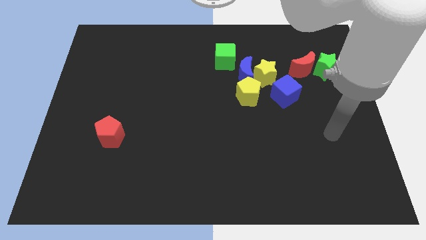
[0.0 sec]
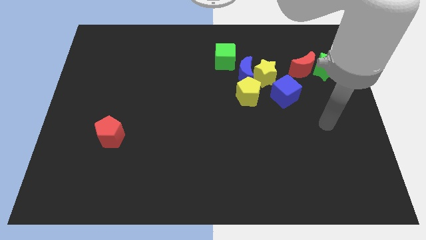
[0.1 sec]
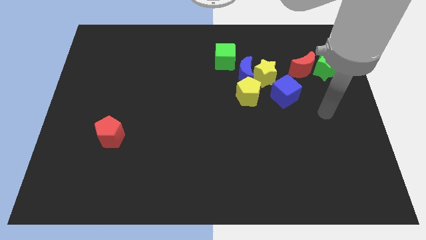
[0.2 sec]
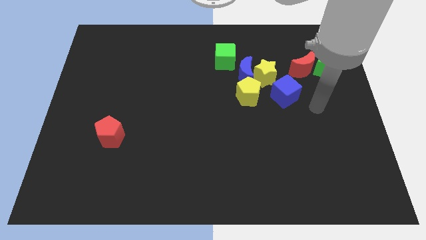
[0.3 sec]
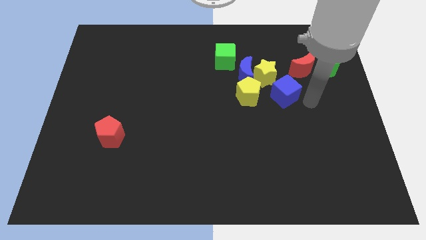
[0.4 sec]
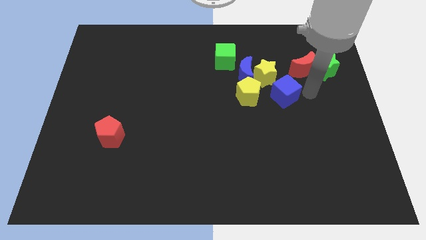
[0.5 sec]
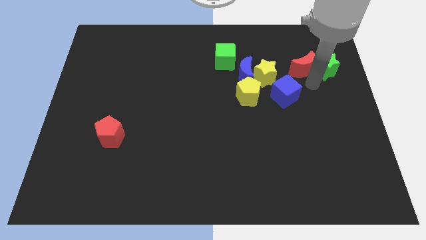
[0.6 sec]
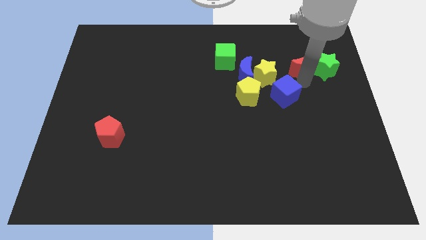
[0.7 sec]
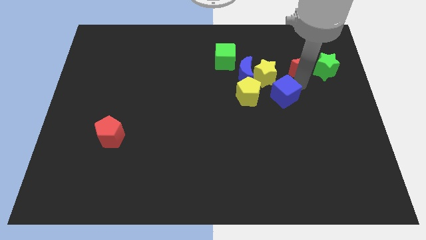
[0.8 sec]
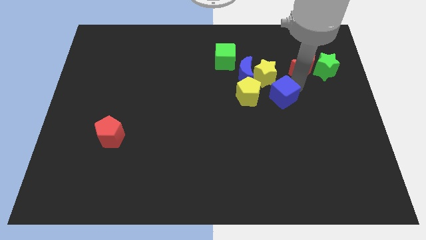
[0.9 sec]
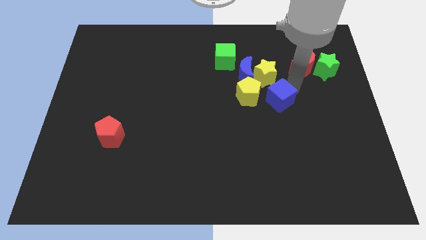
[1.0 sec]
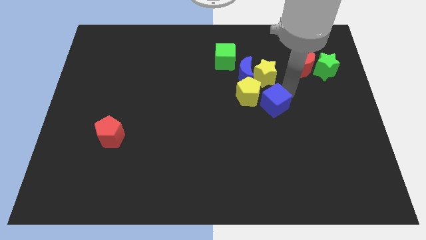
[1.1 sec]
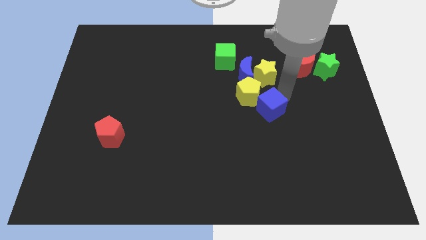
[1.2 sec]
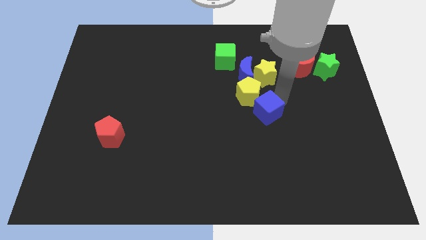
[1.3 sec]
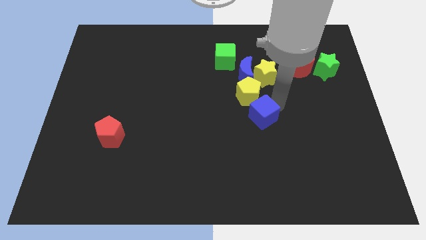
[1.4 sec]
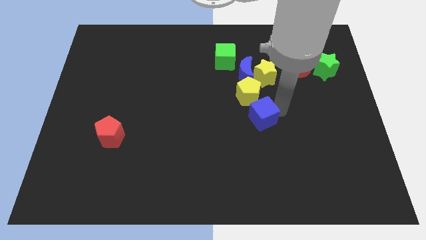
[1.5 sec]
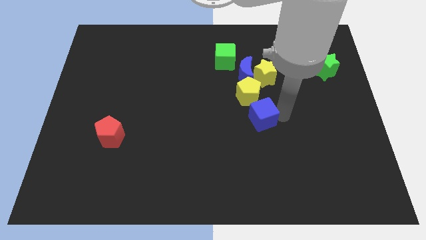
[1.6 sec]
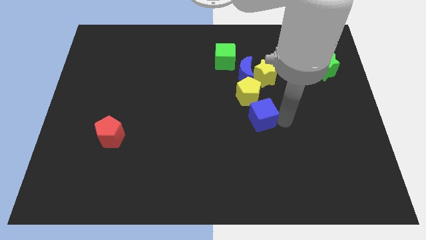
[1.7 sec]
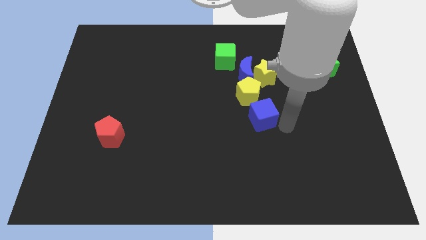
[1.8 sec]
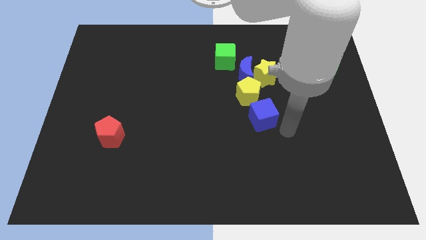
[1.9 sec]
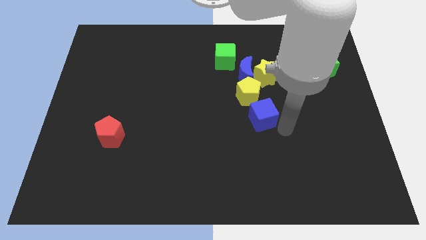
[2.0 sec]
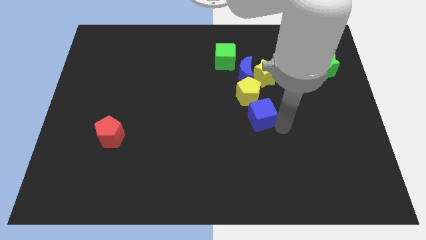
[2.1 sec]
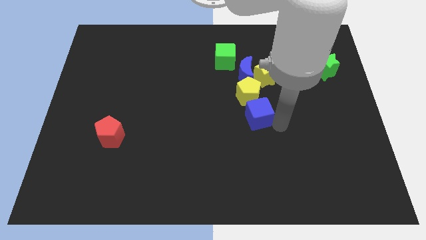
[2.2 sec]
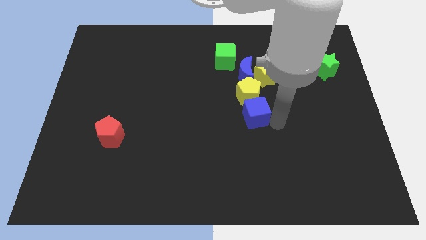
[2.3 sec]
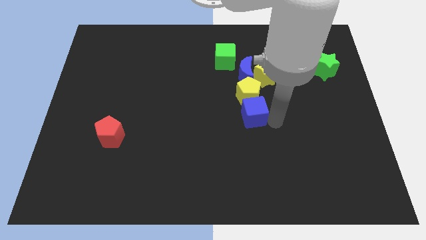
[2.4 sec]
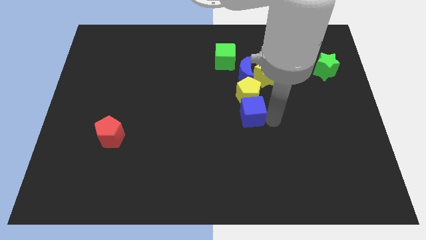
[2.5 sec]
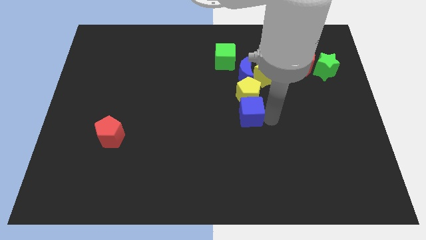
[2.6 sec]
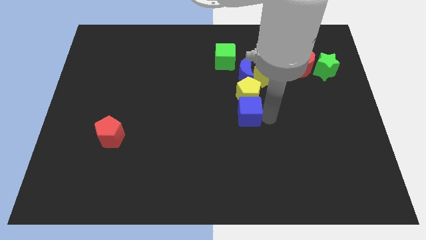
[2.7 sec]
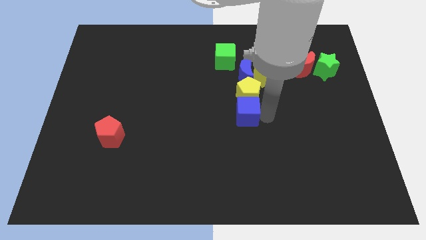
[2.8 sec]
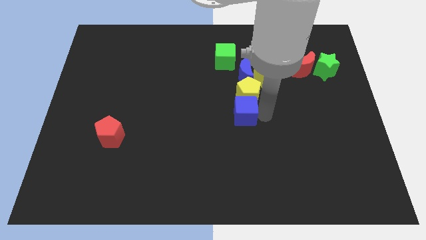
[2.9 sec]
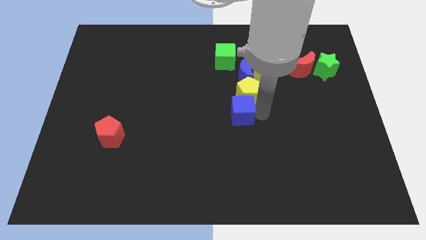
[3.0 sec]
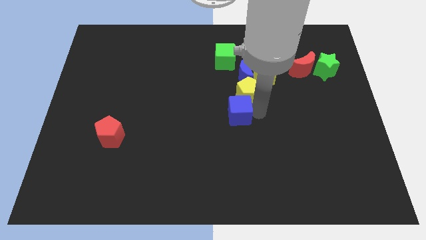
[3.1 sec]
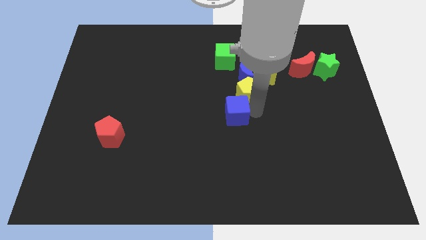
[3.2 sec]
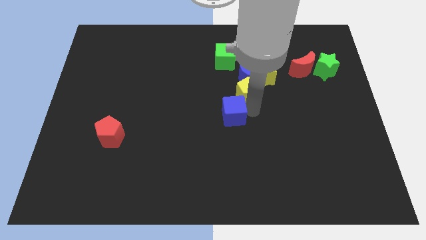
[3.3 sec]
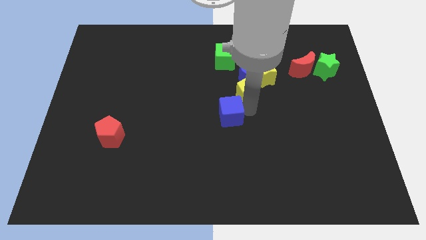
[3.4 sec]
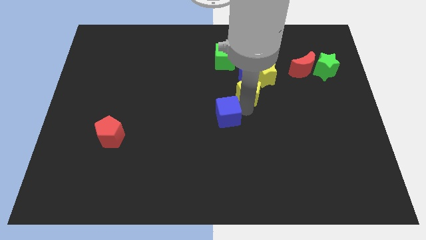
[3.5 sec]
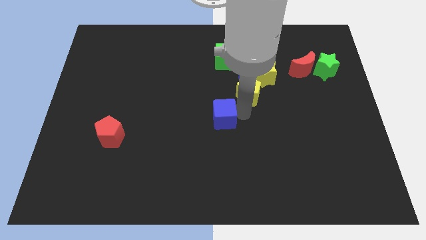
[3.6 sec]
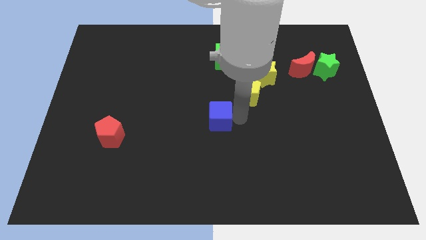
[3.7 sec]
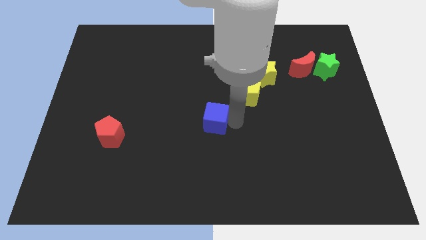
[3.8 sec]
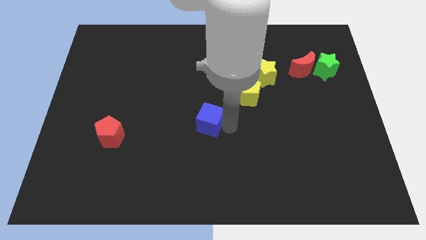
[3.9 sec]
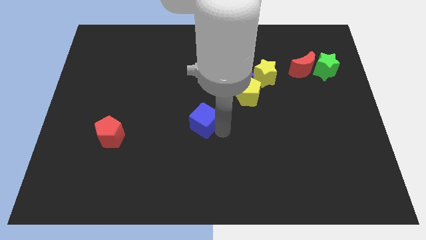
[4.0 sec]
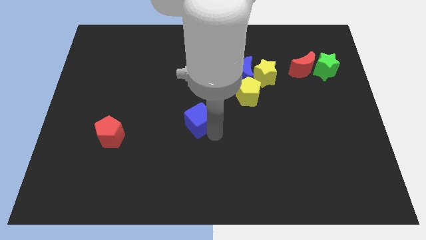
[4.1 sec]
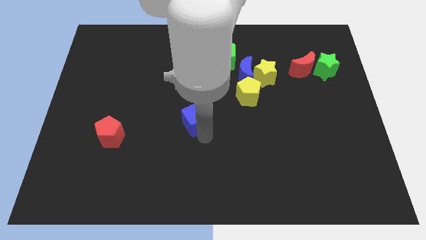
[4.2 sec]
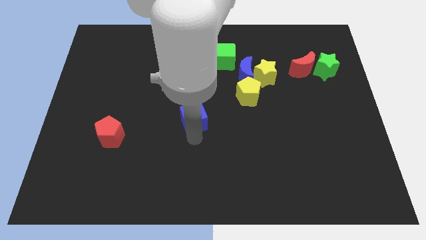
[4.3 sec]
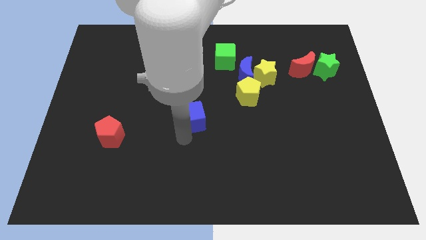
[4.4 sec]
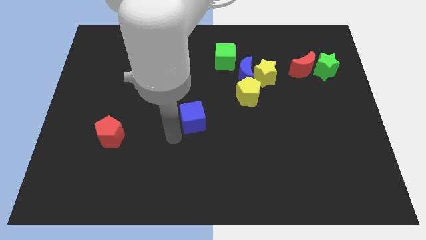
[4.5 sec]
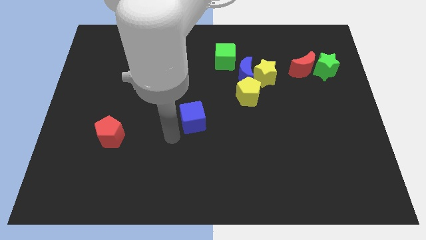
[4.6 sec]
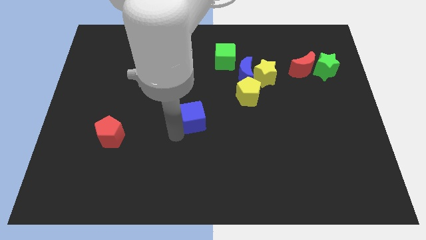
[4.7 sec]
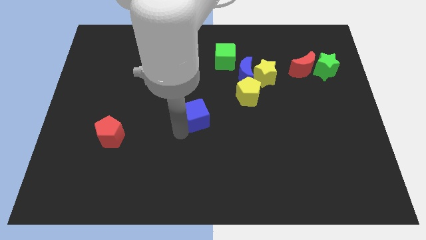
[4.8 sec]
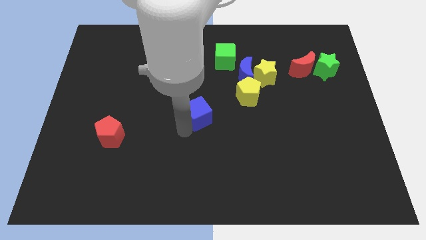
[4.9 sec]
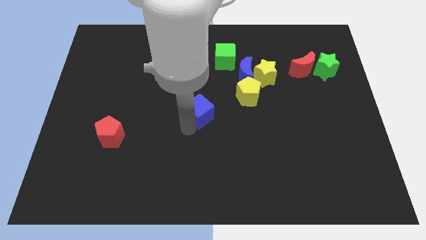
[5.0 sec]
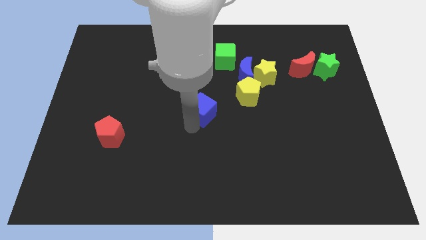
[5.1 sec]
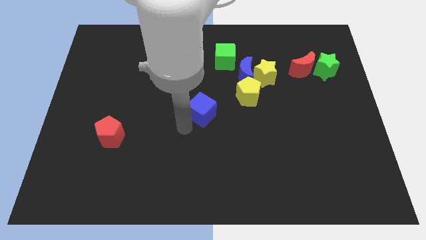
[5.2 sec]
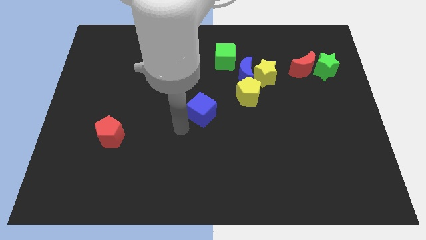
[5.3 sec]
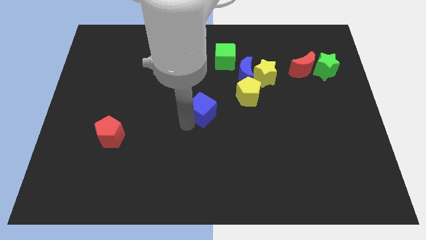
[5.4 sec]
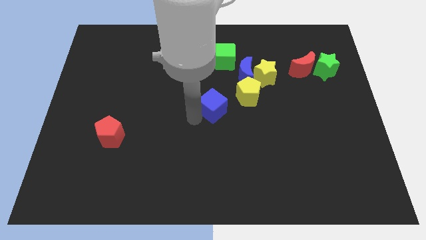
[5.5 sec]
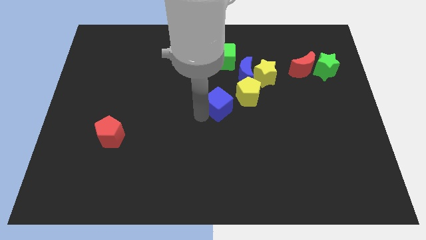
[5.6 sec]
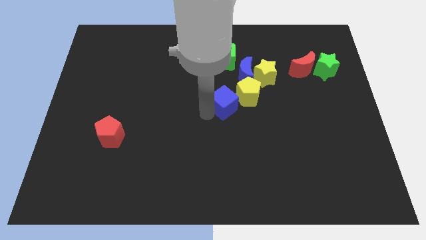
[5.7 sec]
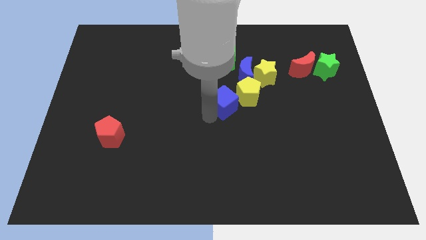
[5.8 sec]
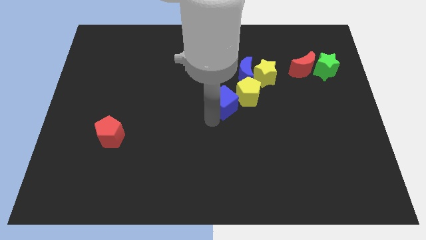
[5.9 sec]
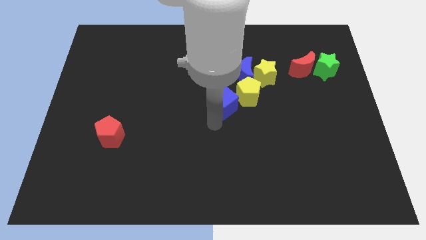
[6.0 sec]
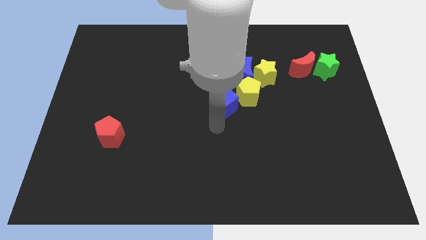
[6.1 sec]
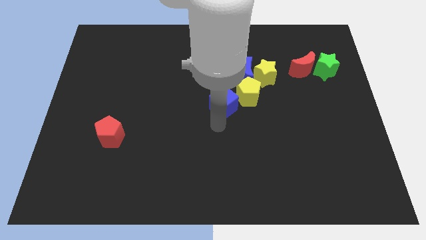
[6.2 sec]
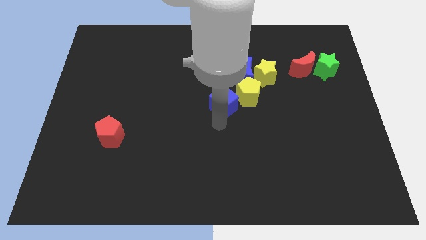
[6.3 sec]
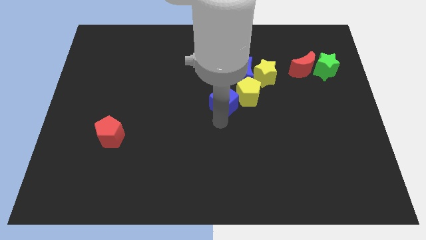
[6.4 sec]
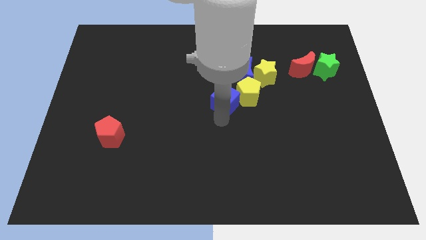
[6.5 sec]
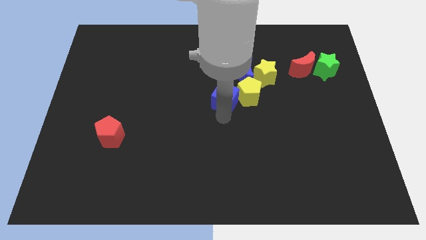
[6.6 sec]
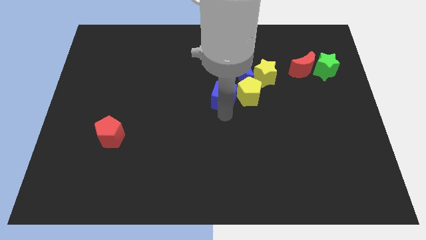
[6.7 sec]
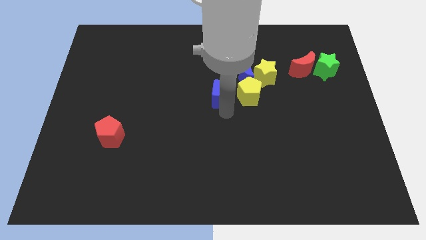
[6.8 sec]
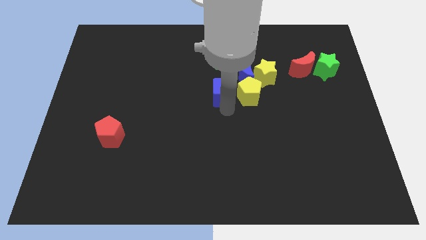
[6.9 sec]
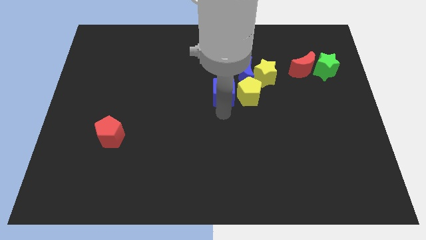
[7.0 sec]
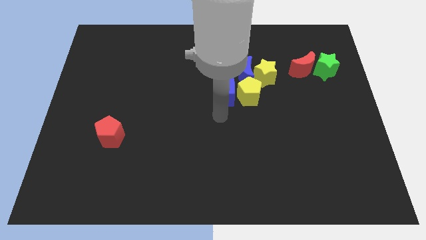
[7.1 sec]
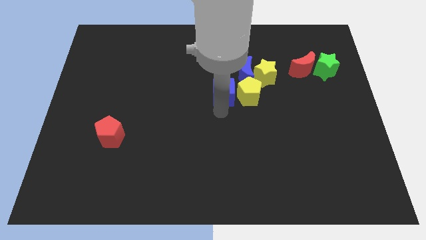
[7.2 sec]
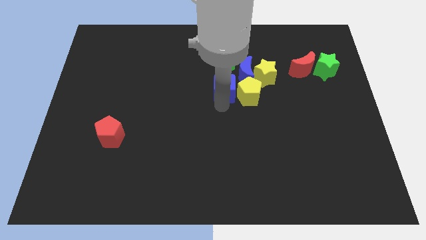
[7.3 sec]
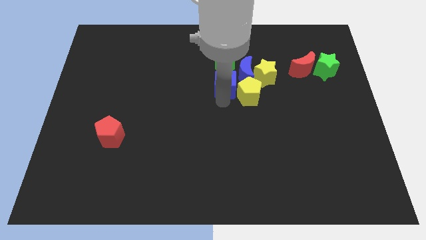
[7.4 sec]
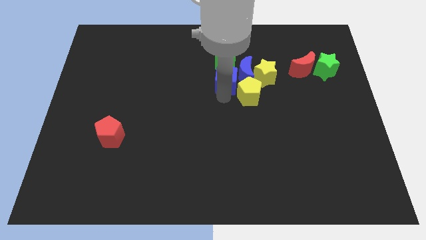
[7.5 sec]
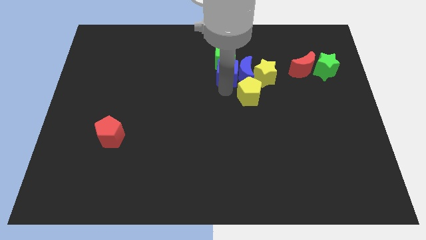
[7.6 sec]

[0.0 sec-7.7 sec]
slide the blue cube close to the green cube

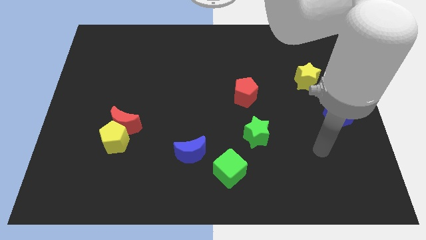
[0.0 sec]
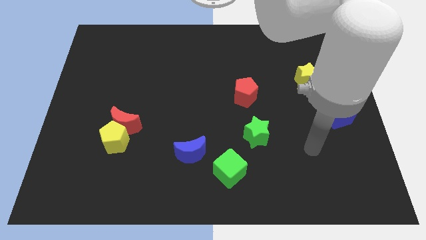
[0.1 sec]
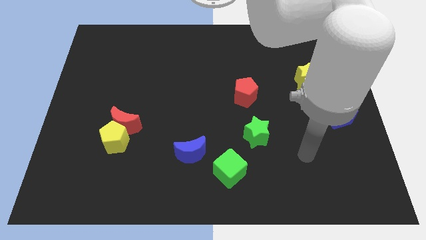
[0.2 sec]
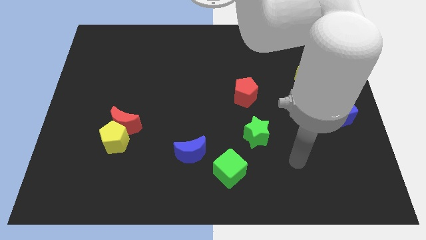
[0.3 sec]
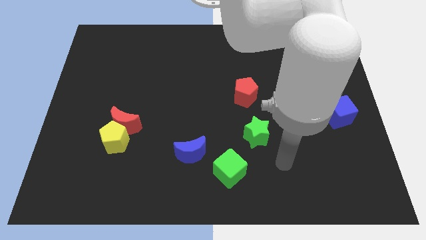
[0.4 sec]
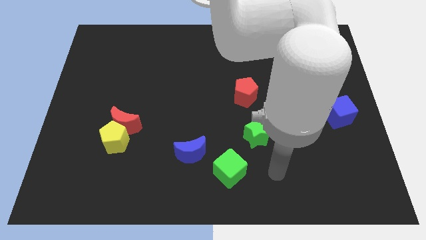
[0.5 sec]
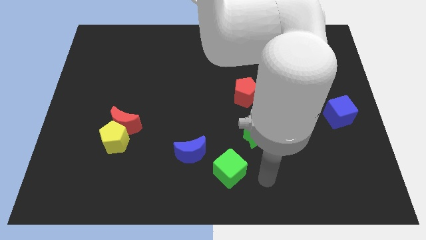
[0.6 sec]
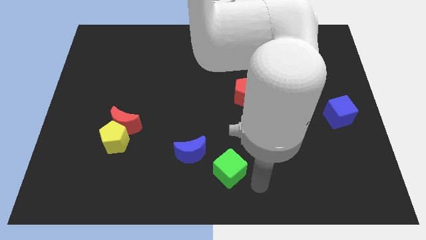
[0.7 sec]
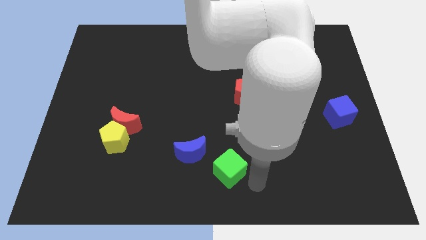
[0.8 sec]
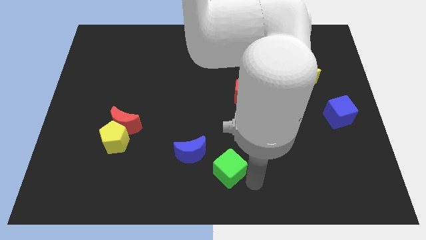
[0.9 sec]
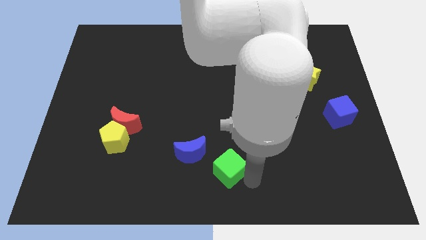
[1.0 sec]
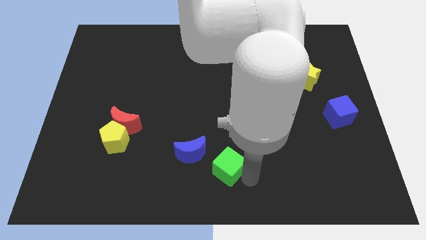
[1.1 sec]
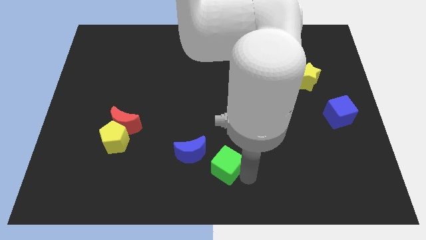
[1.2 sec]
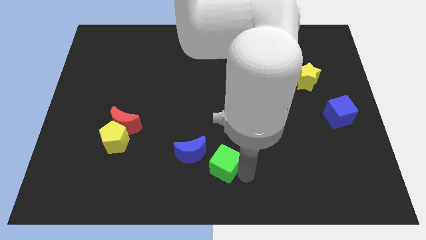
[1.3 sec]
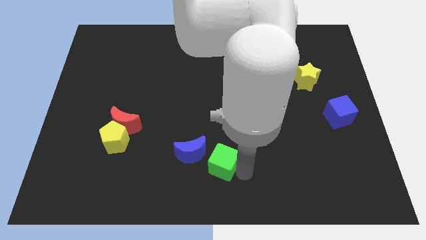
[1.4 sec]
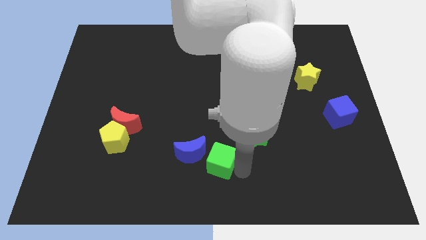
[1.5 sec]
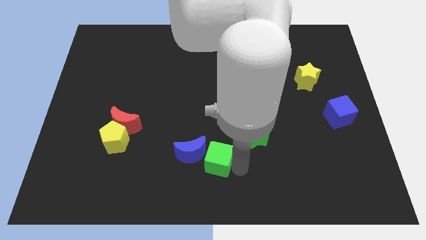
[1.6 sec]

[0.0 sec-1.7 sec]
move the green cube next to the blue moon
